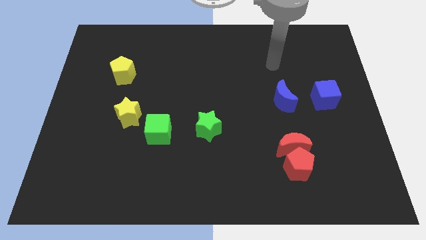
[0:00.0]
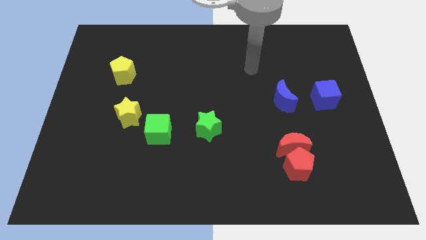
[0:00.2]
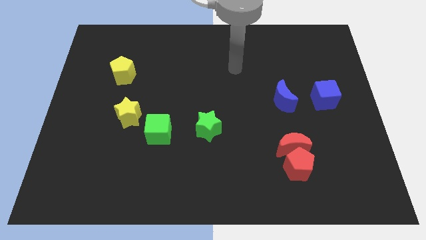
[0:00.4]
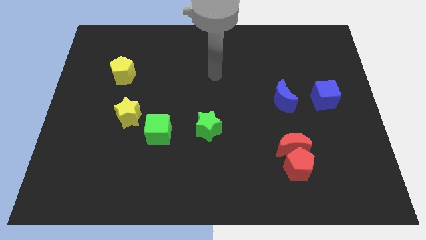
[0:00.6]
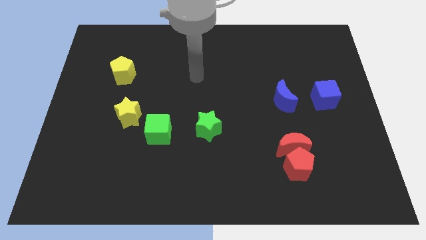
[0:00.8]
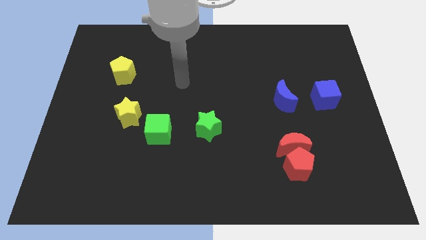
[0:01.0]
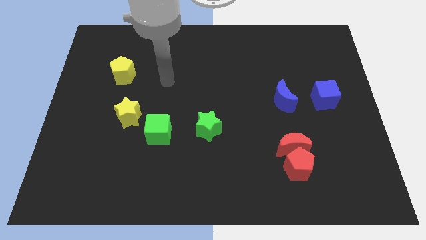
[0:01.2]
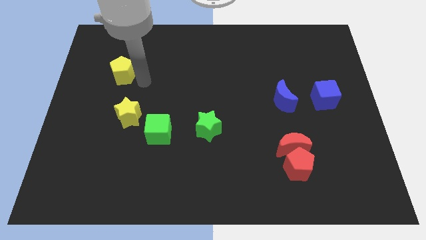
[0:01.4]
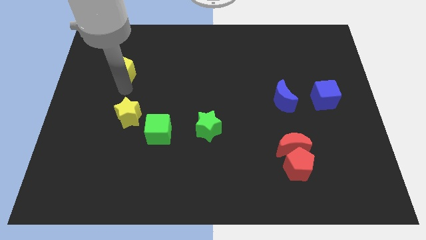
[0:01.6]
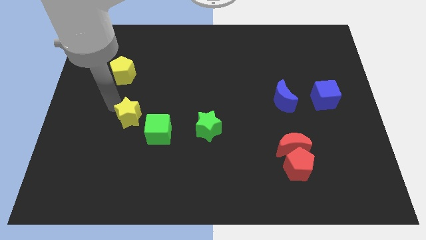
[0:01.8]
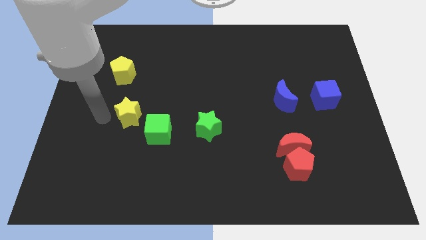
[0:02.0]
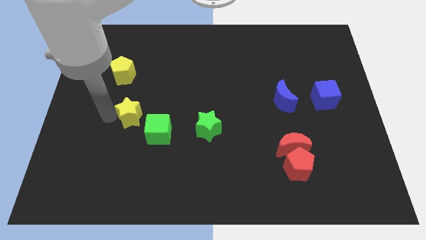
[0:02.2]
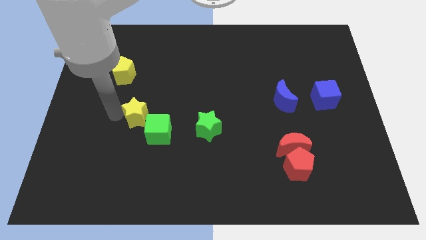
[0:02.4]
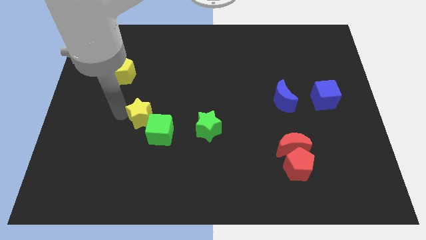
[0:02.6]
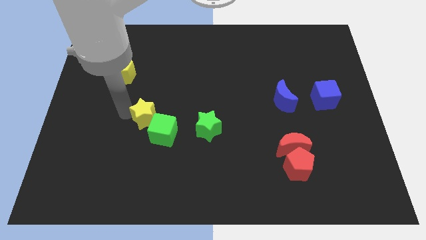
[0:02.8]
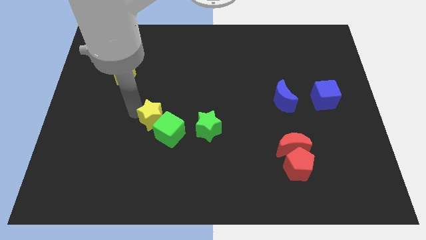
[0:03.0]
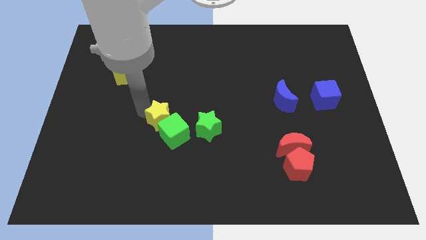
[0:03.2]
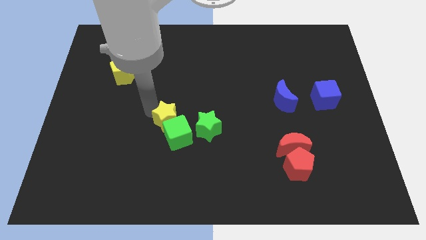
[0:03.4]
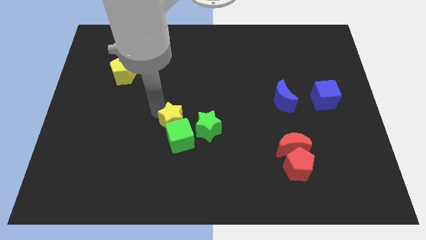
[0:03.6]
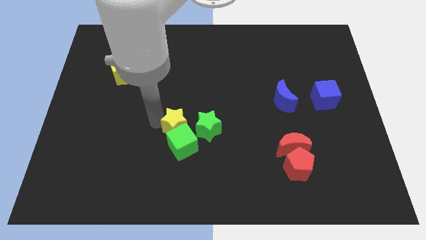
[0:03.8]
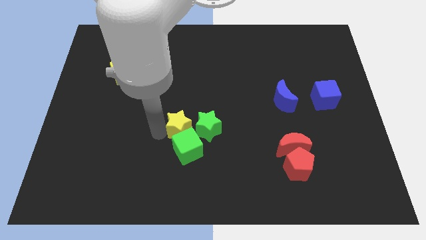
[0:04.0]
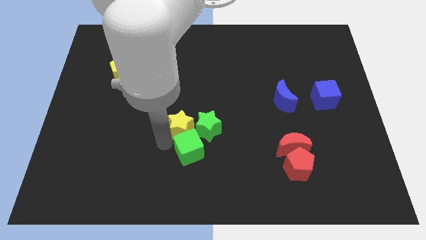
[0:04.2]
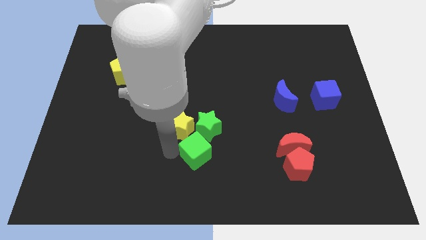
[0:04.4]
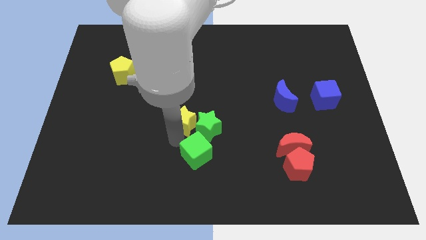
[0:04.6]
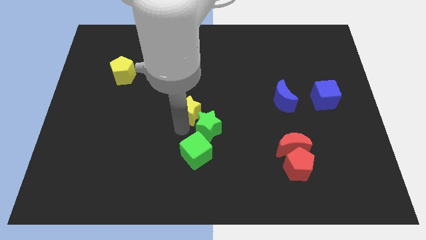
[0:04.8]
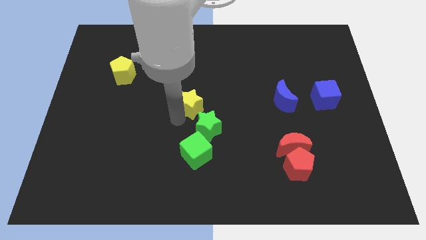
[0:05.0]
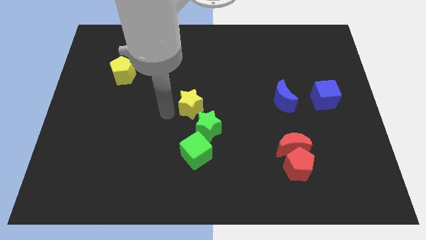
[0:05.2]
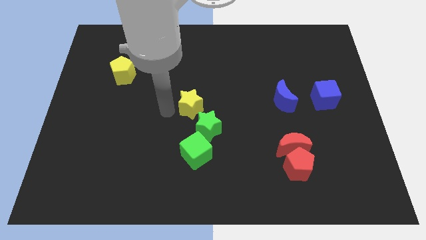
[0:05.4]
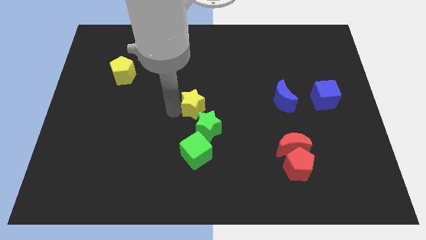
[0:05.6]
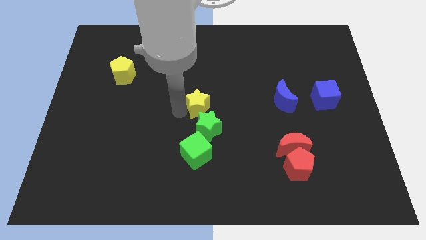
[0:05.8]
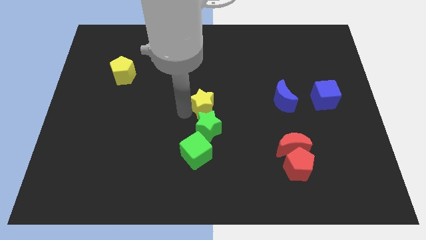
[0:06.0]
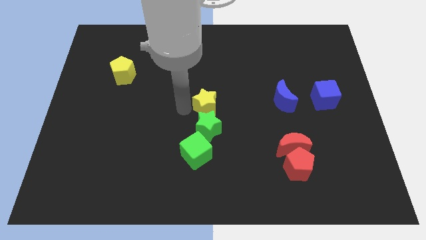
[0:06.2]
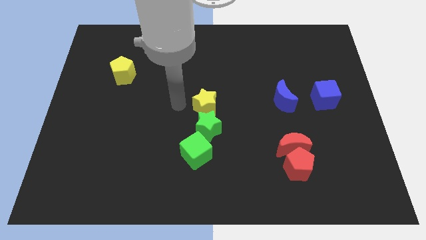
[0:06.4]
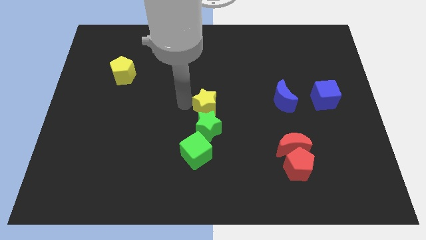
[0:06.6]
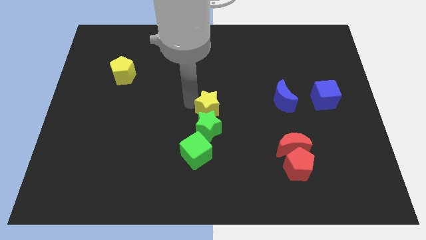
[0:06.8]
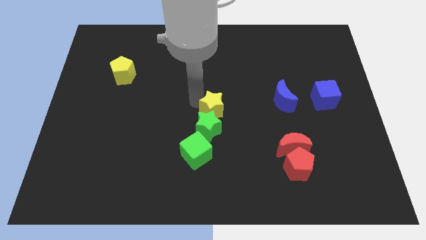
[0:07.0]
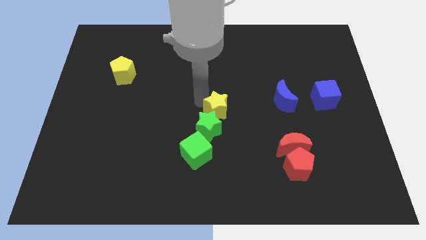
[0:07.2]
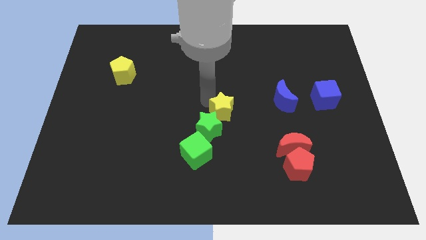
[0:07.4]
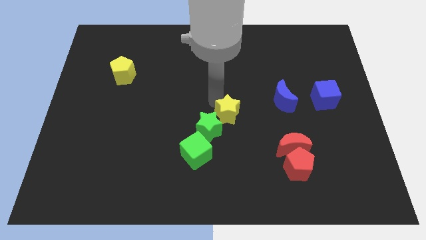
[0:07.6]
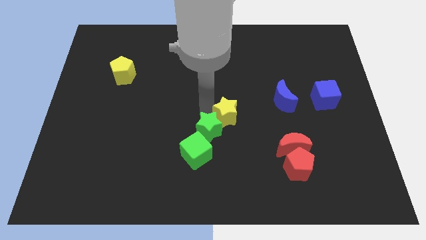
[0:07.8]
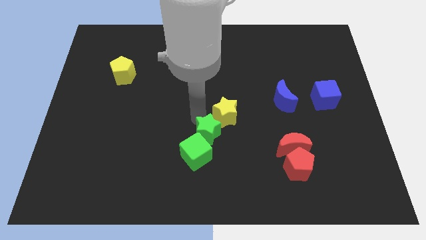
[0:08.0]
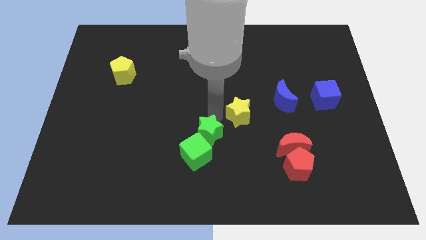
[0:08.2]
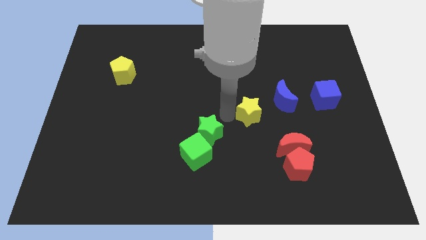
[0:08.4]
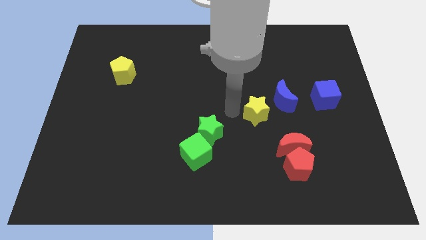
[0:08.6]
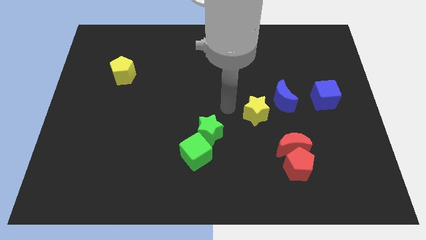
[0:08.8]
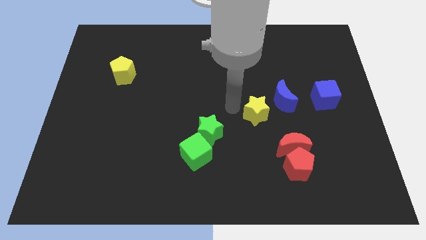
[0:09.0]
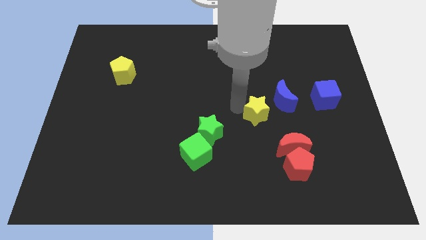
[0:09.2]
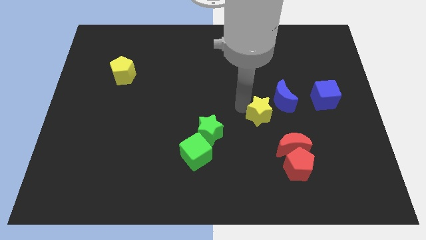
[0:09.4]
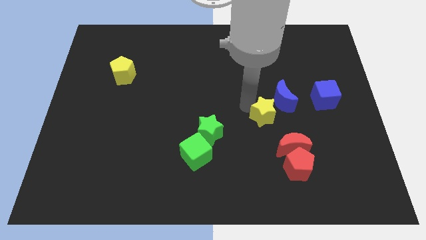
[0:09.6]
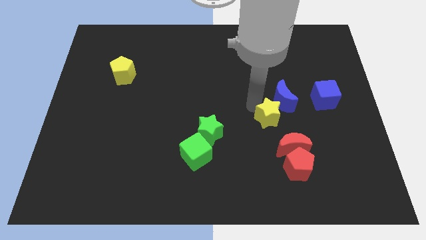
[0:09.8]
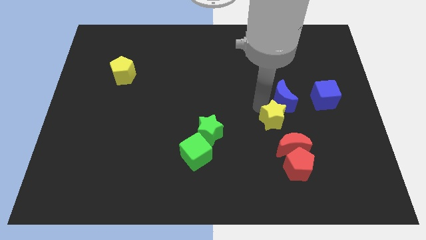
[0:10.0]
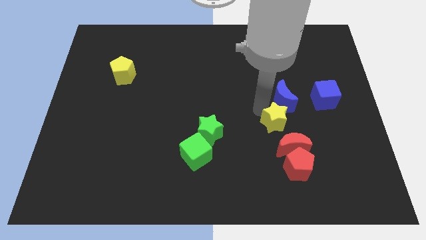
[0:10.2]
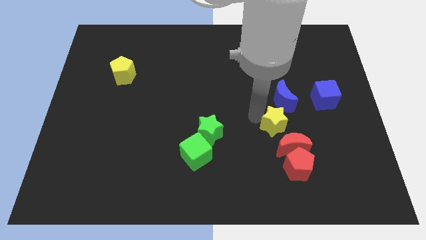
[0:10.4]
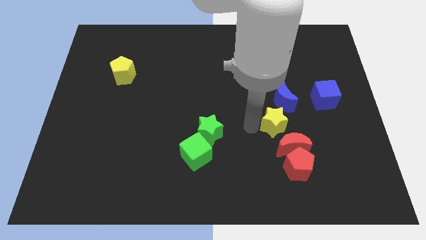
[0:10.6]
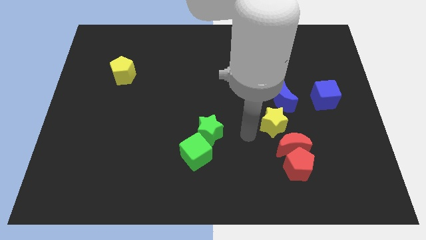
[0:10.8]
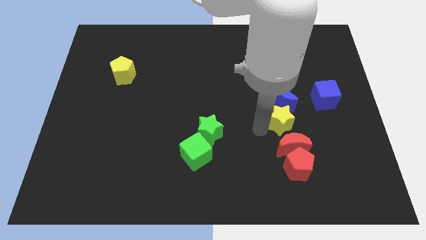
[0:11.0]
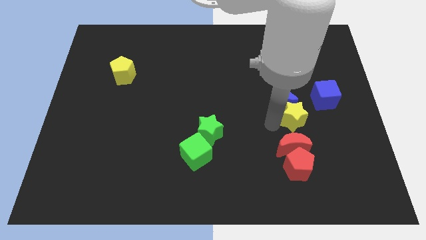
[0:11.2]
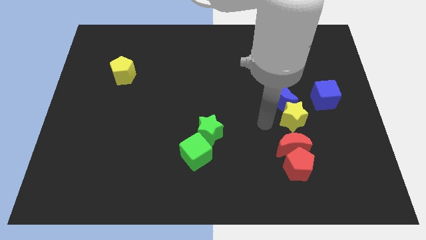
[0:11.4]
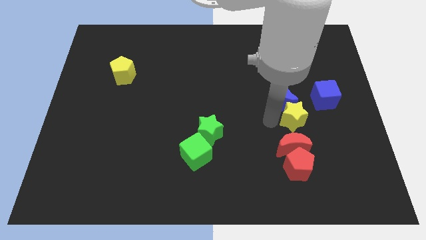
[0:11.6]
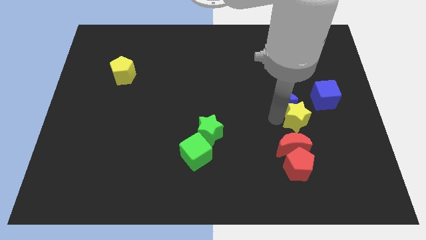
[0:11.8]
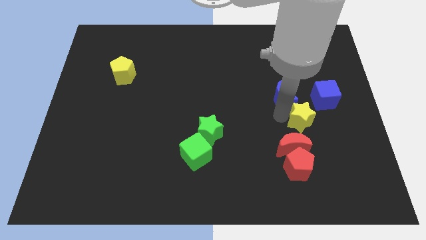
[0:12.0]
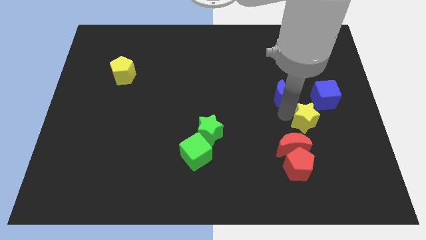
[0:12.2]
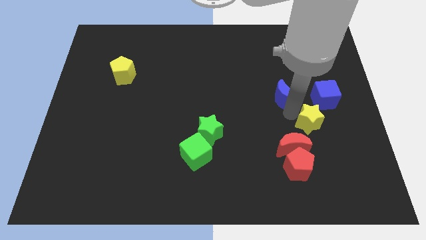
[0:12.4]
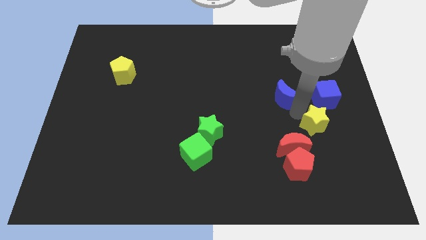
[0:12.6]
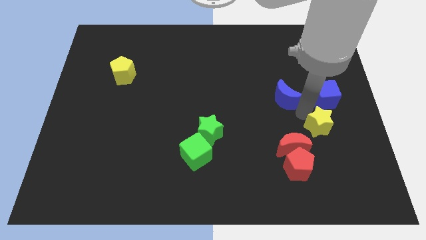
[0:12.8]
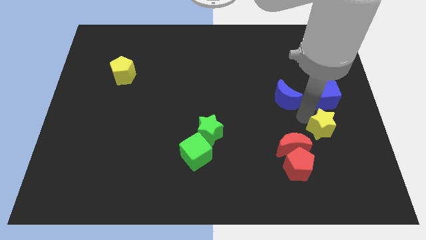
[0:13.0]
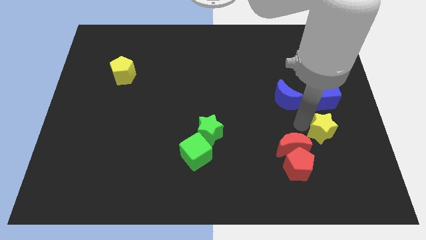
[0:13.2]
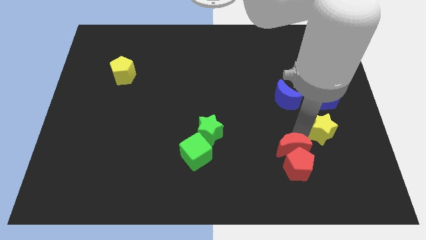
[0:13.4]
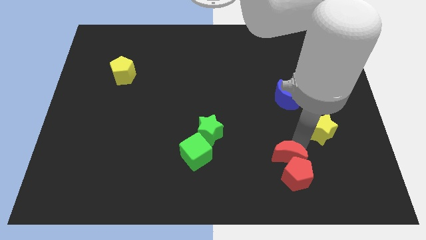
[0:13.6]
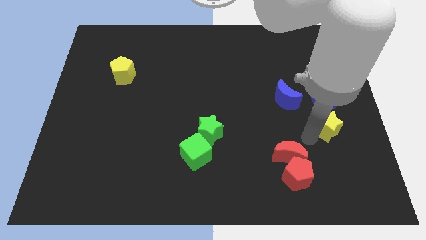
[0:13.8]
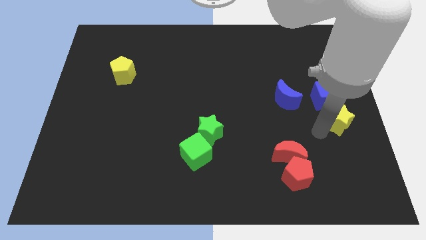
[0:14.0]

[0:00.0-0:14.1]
slide the yellow star to the center right
